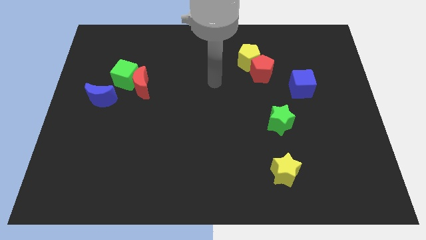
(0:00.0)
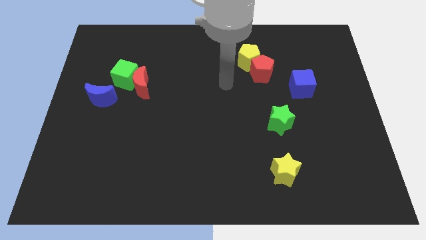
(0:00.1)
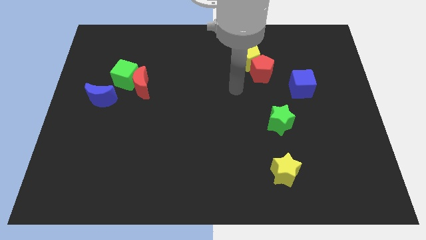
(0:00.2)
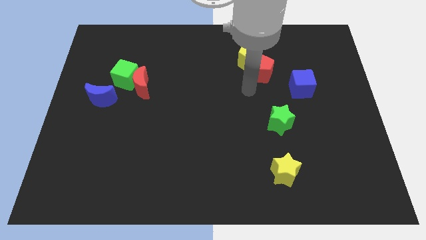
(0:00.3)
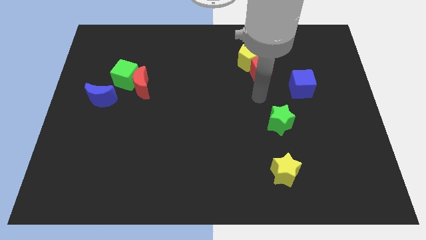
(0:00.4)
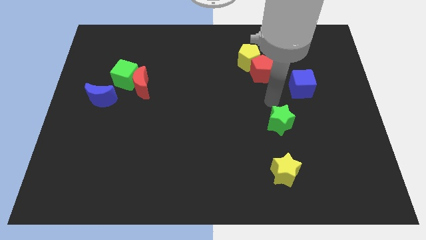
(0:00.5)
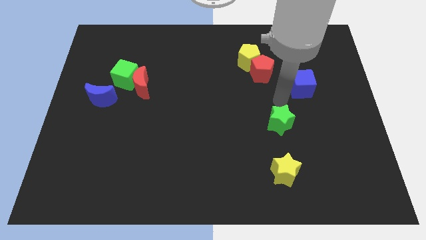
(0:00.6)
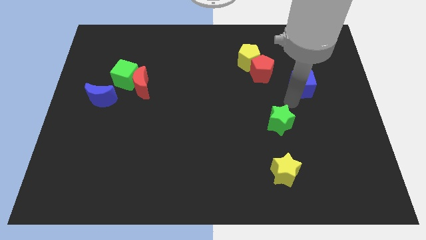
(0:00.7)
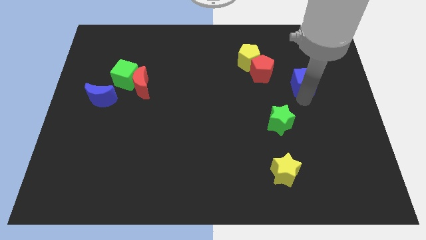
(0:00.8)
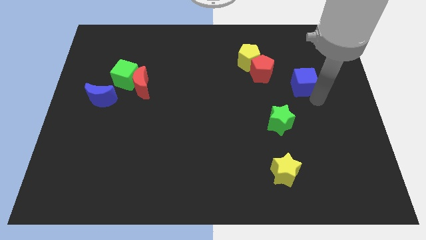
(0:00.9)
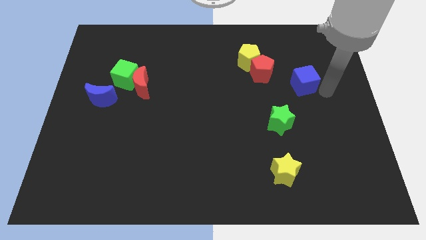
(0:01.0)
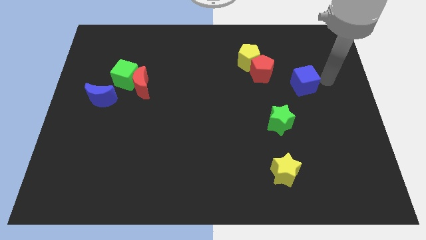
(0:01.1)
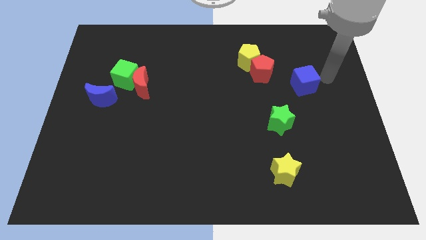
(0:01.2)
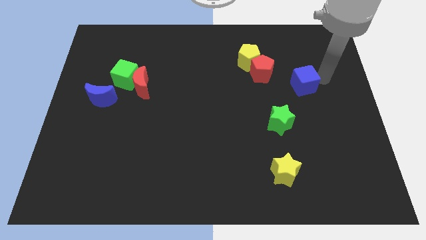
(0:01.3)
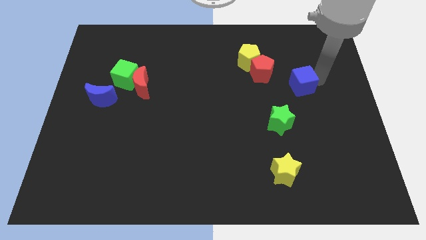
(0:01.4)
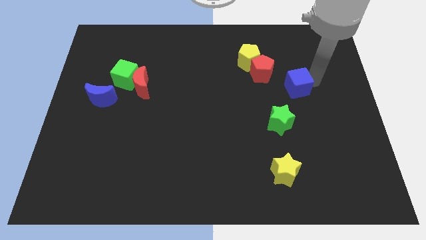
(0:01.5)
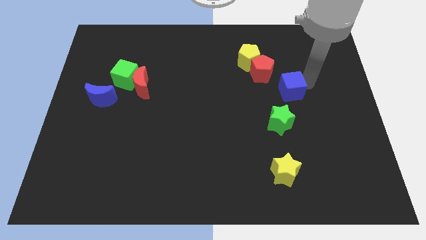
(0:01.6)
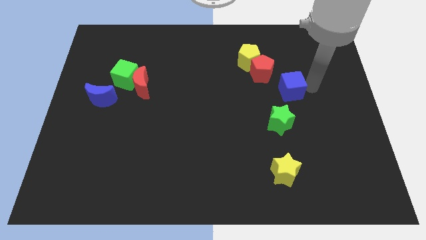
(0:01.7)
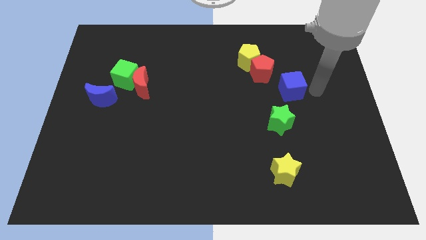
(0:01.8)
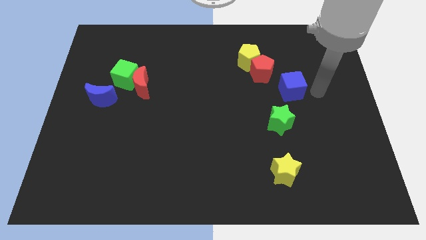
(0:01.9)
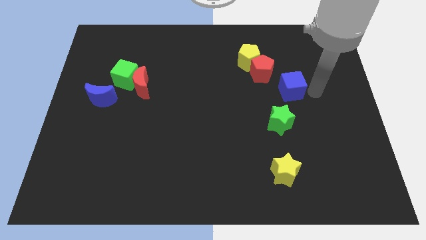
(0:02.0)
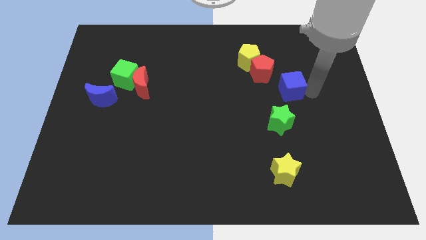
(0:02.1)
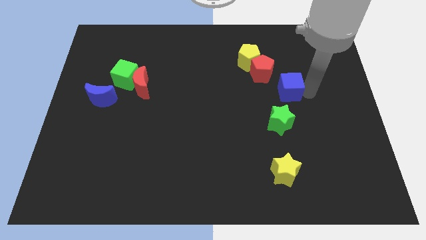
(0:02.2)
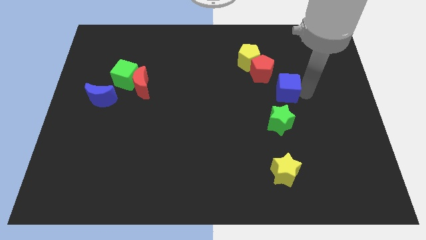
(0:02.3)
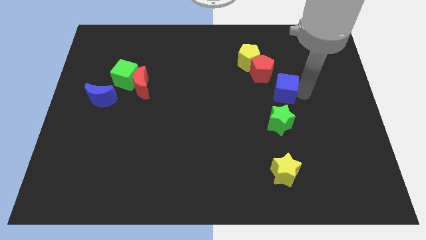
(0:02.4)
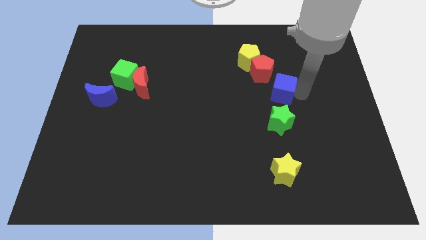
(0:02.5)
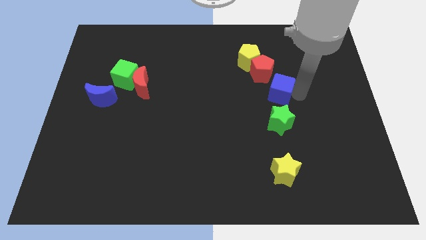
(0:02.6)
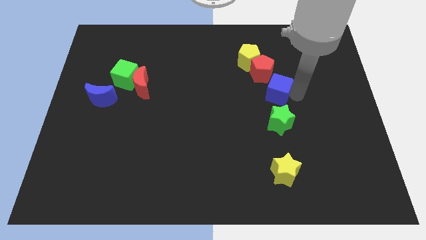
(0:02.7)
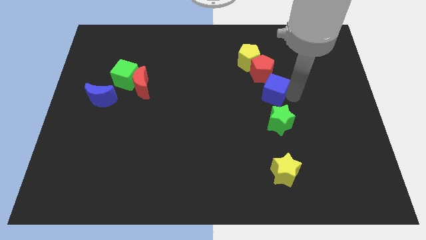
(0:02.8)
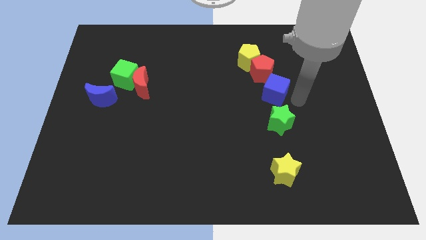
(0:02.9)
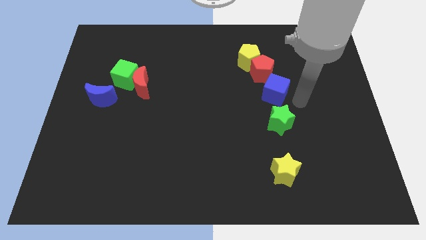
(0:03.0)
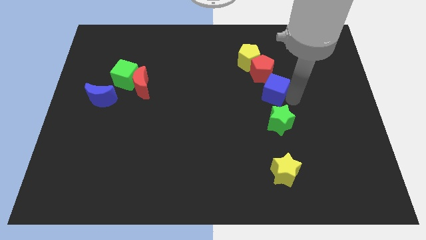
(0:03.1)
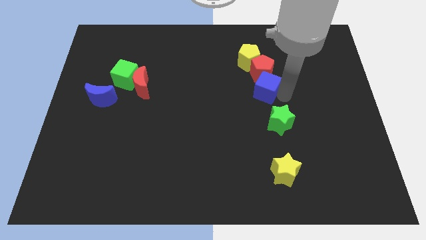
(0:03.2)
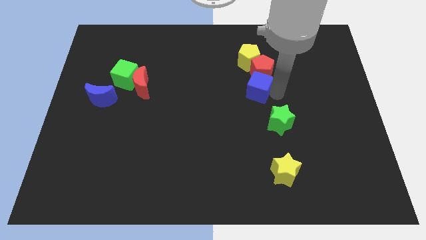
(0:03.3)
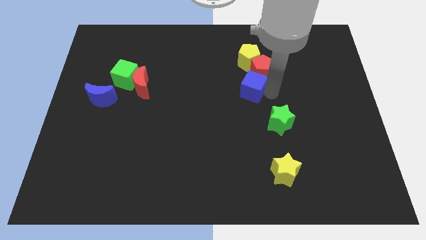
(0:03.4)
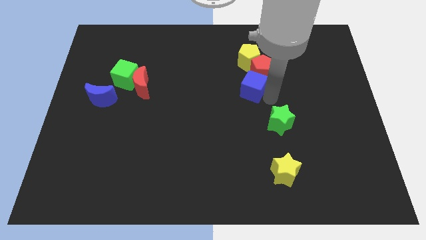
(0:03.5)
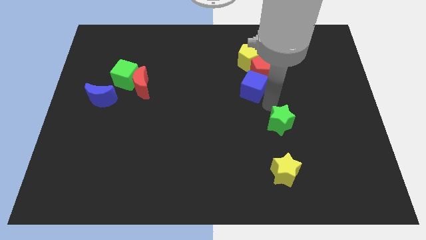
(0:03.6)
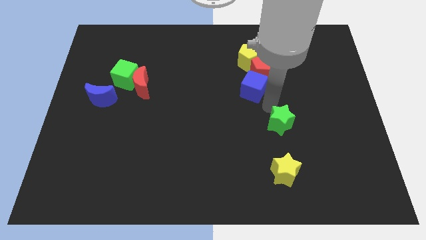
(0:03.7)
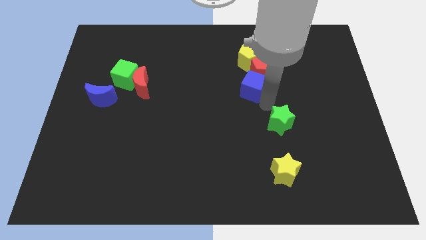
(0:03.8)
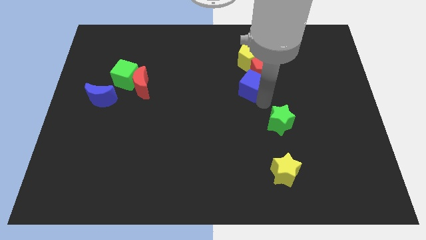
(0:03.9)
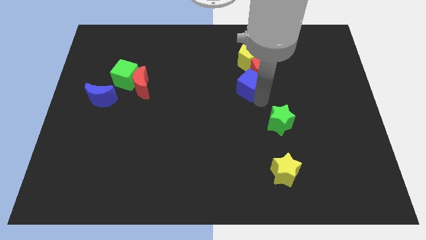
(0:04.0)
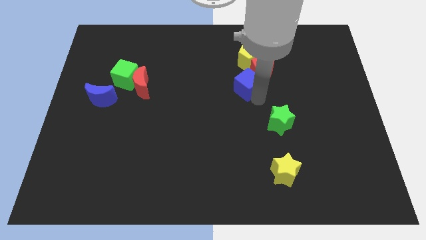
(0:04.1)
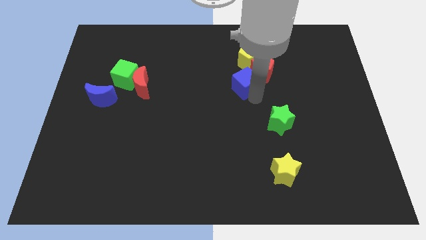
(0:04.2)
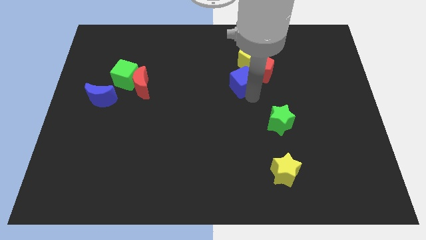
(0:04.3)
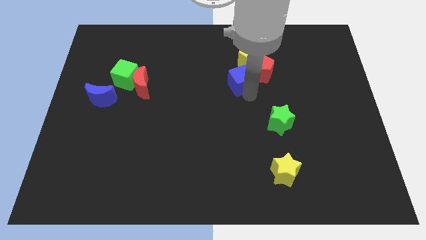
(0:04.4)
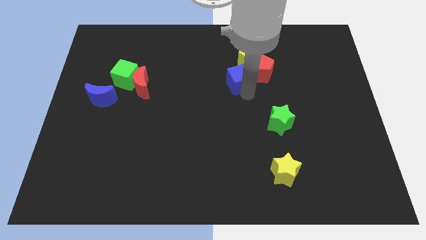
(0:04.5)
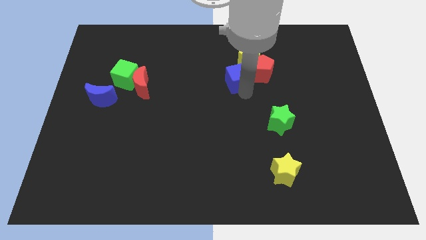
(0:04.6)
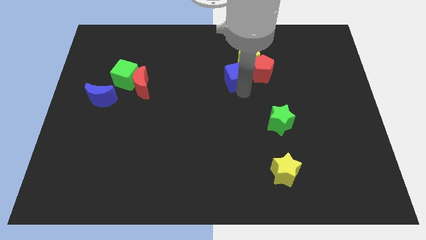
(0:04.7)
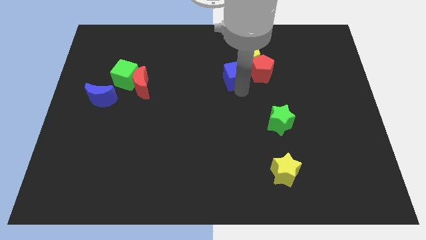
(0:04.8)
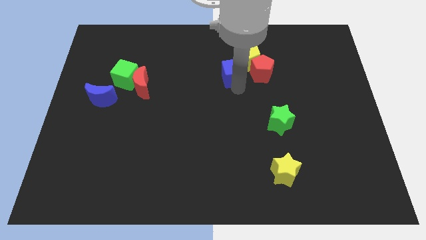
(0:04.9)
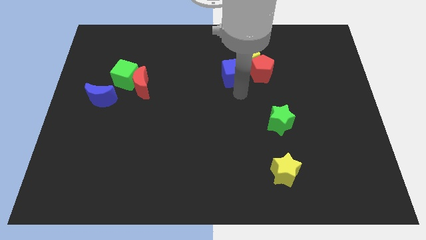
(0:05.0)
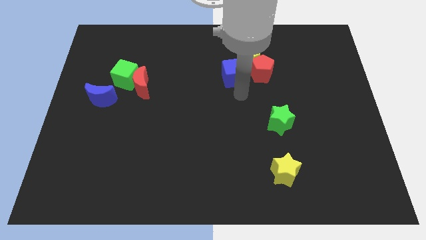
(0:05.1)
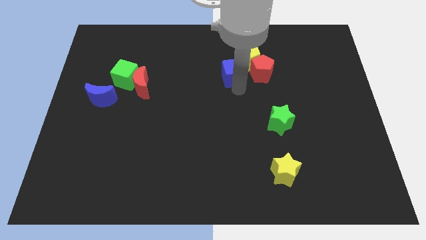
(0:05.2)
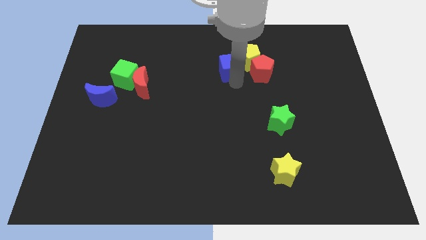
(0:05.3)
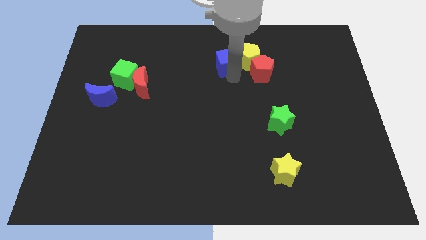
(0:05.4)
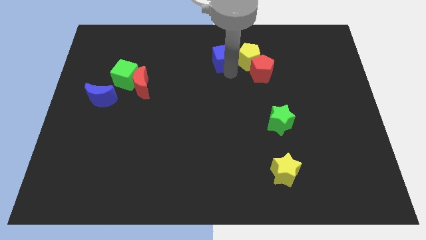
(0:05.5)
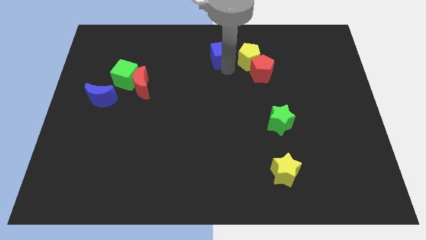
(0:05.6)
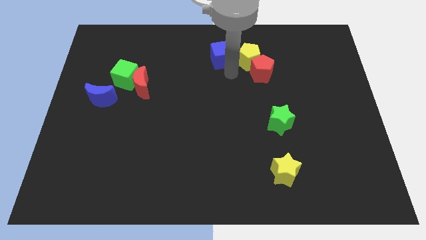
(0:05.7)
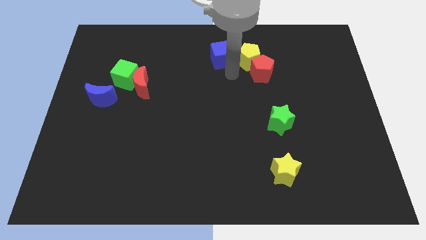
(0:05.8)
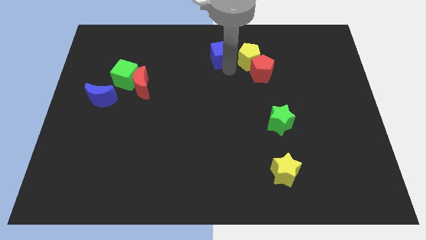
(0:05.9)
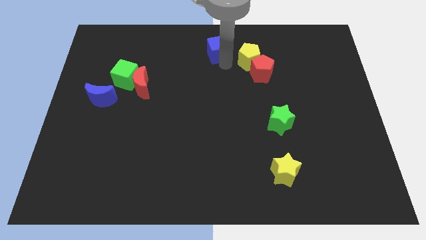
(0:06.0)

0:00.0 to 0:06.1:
slide the blue cube to the top side
